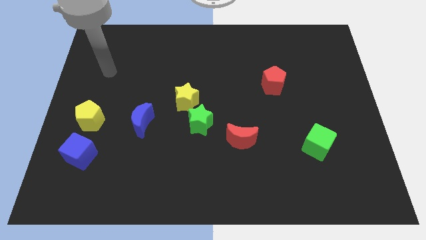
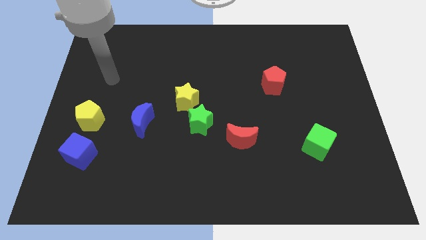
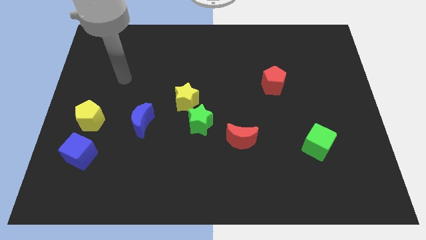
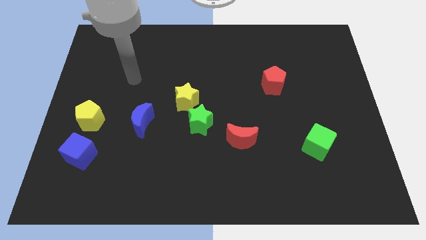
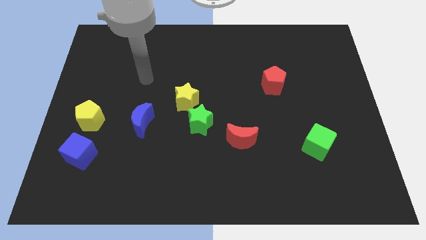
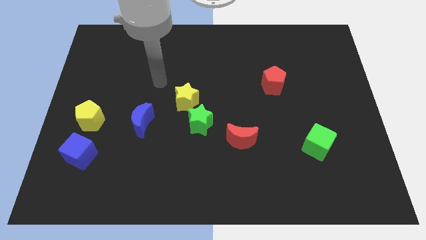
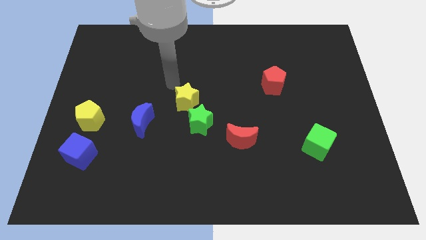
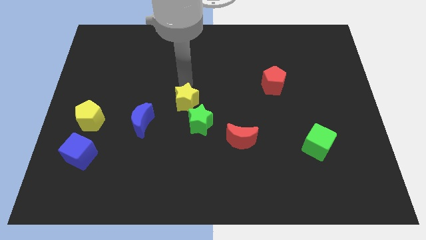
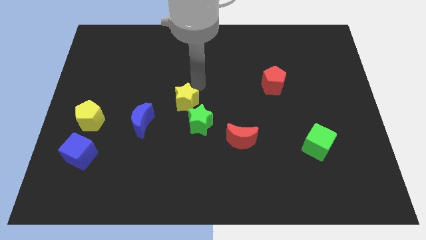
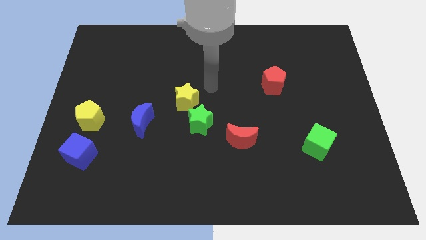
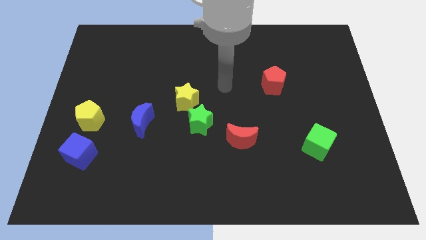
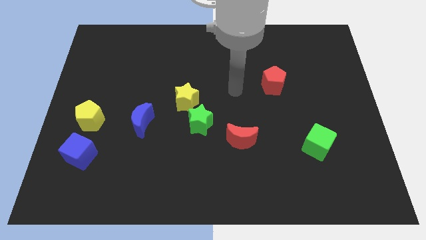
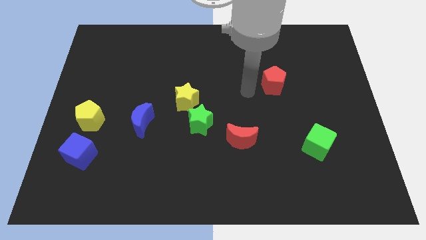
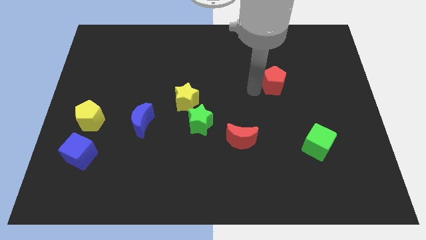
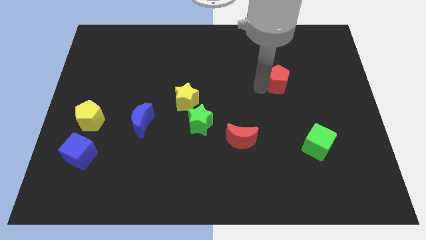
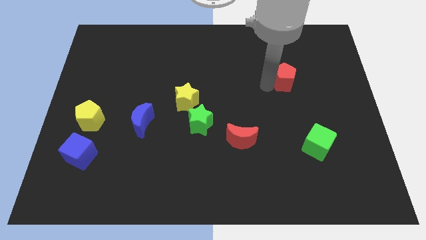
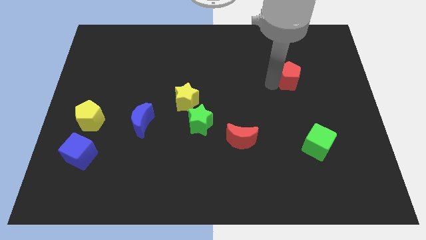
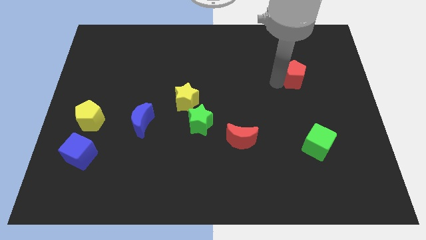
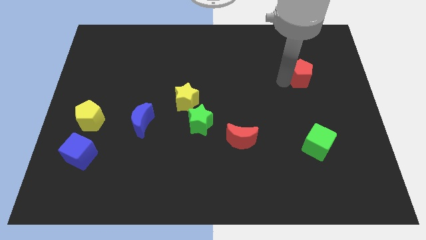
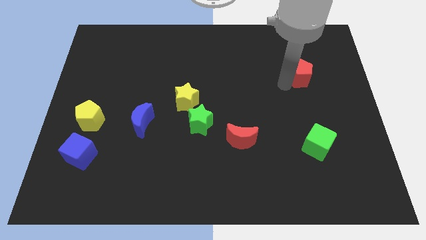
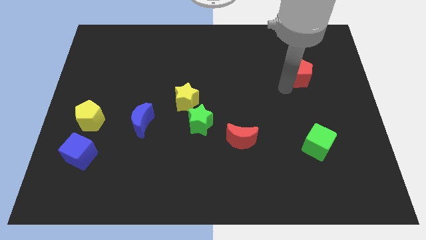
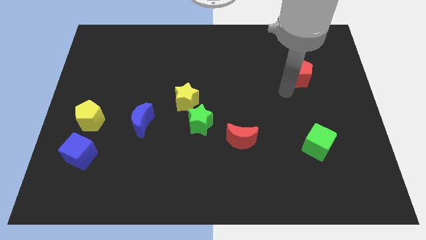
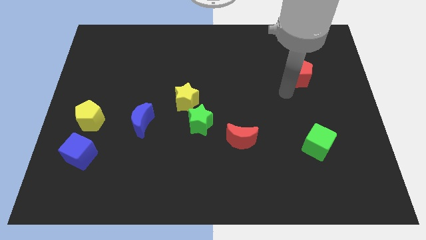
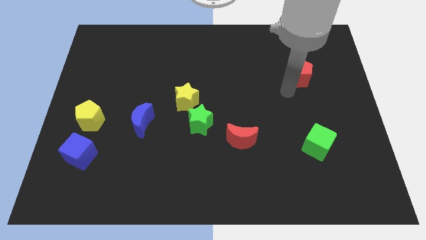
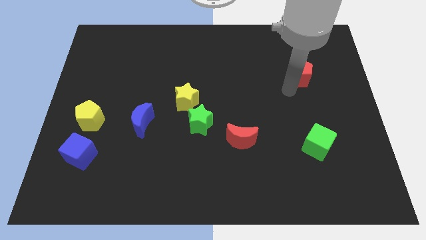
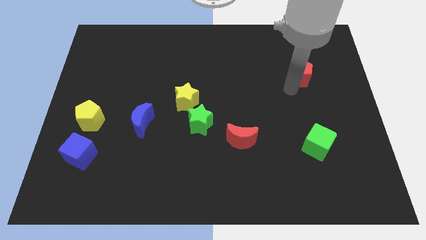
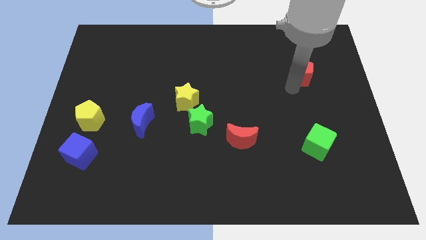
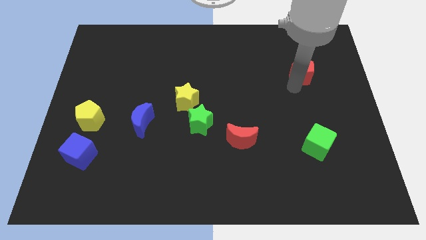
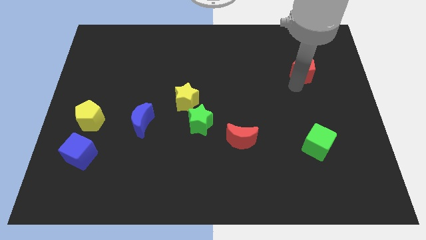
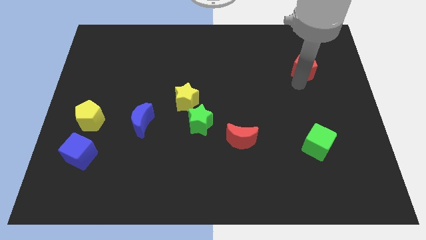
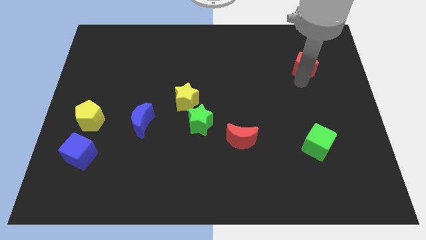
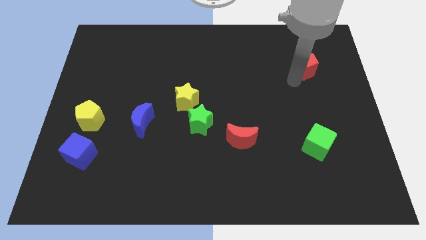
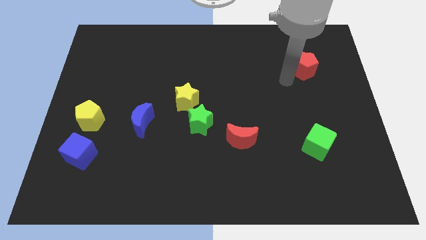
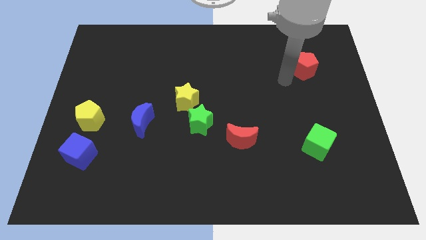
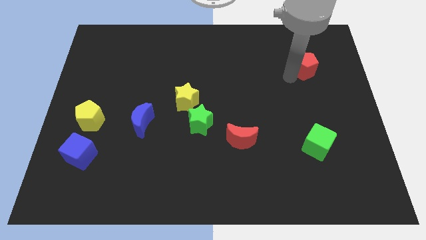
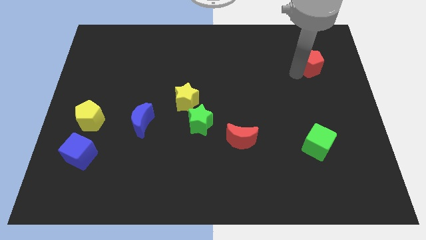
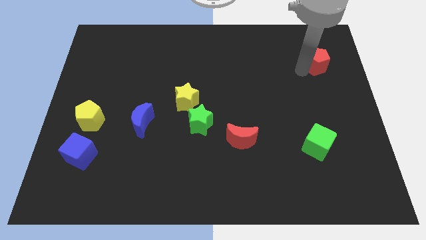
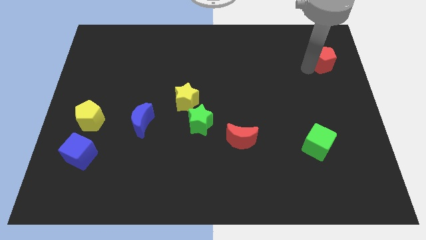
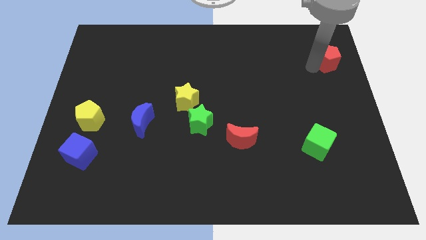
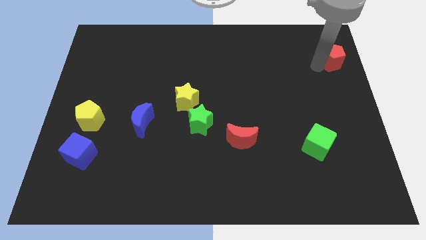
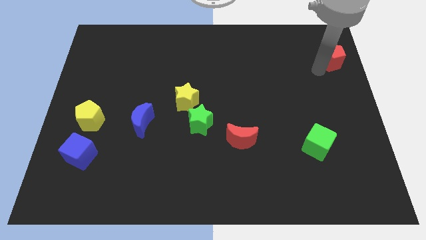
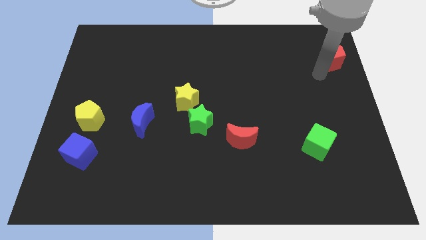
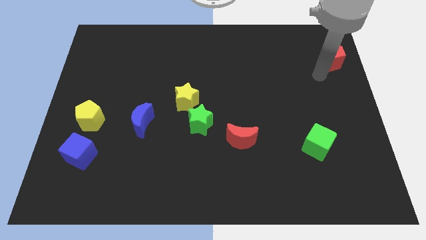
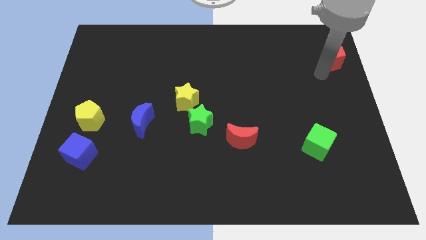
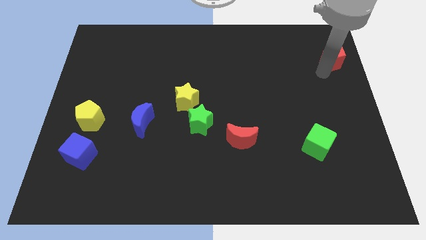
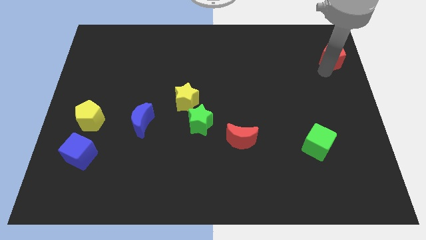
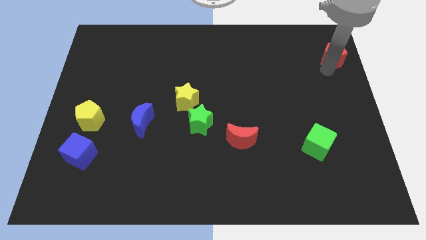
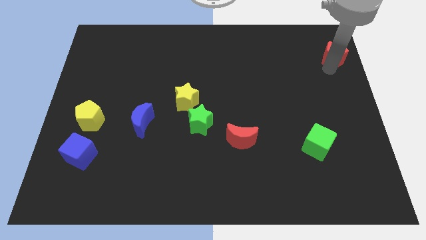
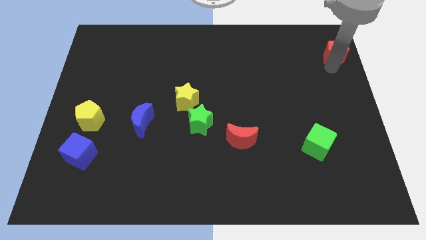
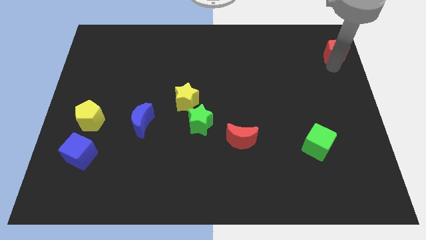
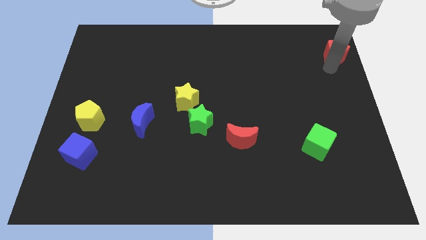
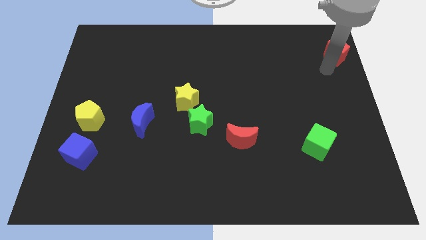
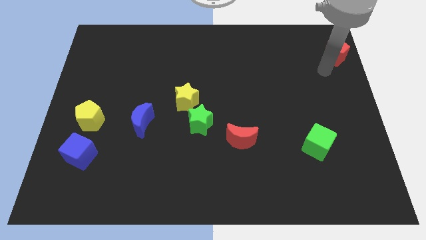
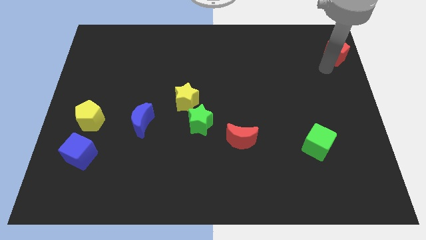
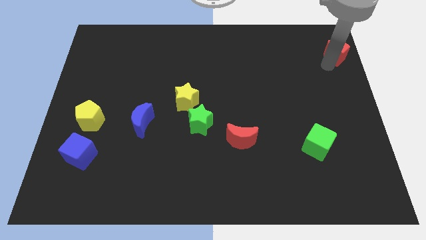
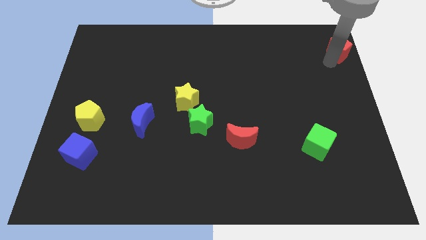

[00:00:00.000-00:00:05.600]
slide the red pentagon to the top right of the board

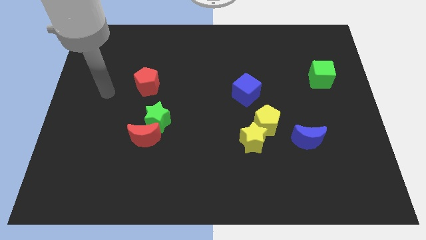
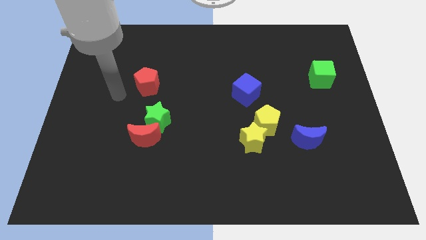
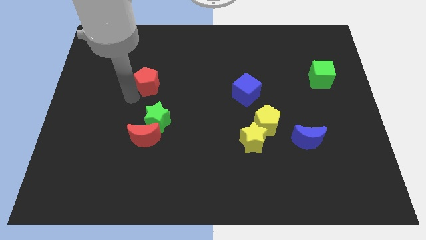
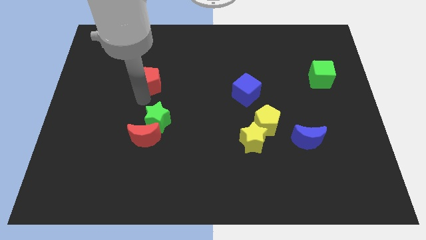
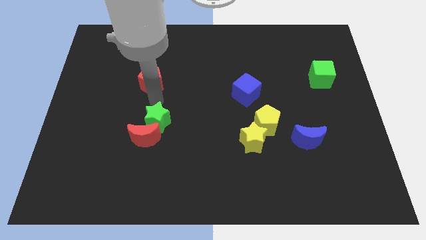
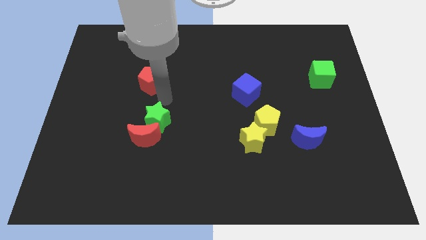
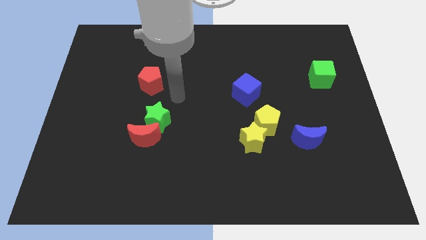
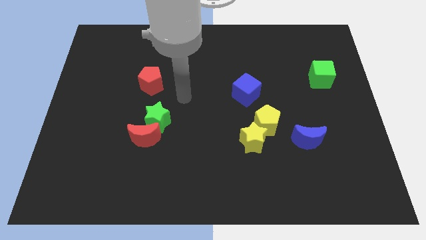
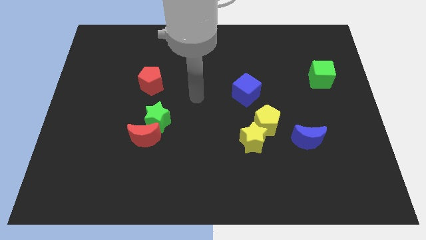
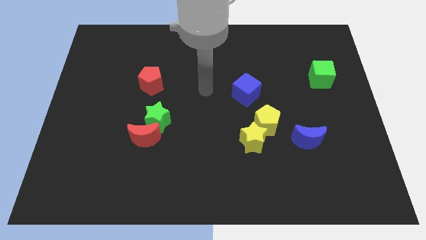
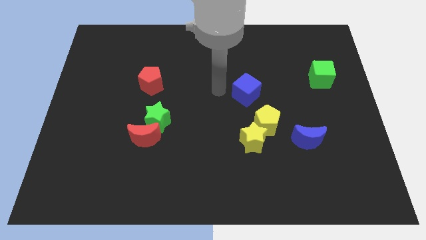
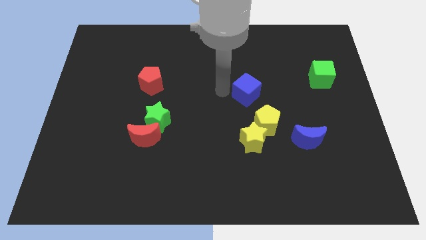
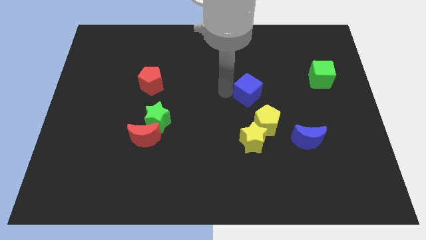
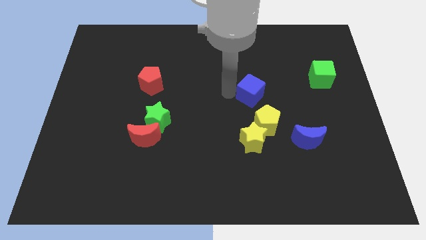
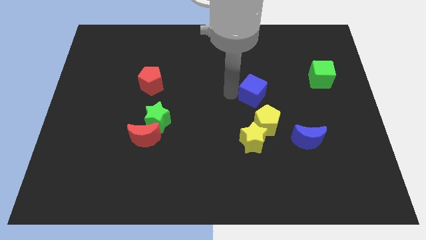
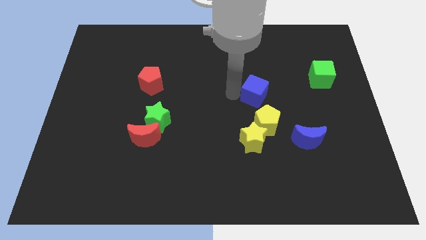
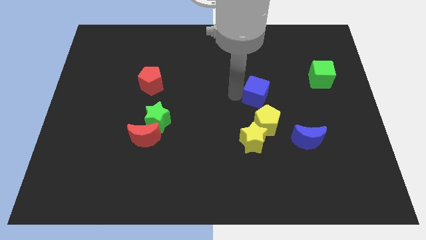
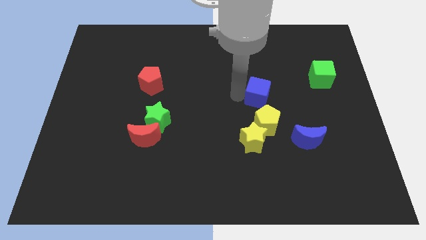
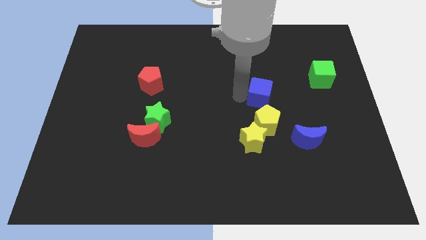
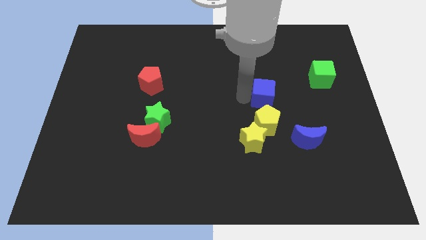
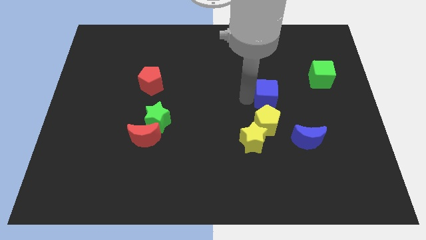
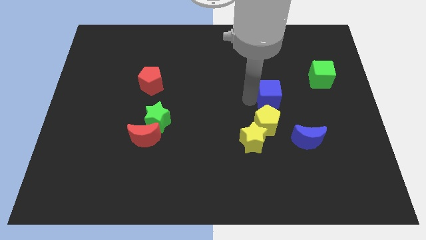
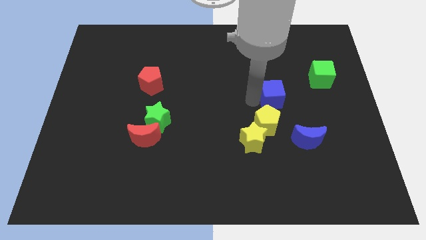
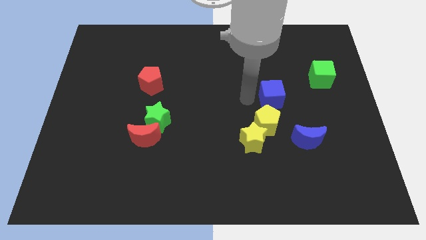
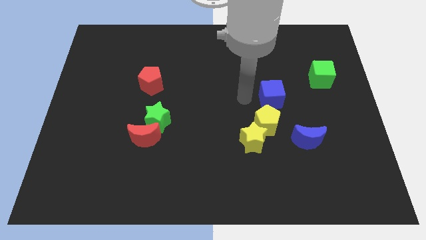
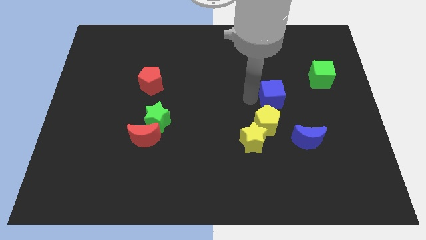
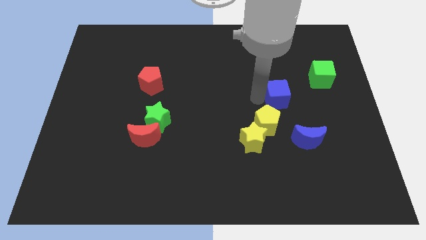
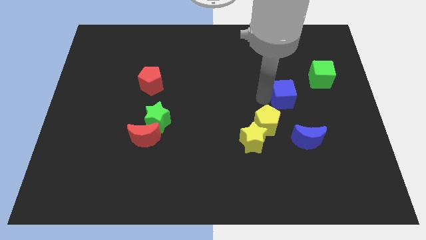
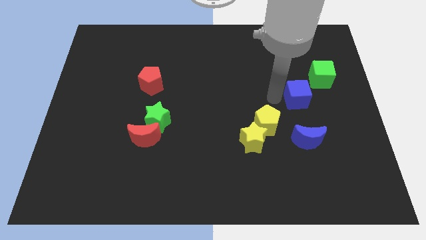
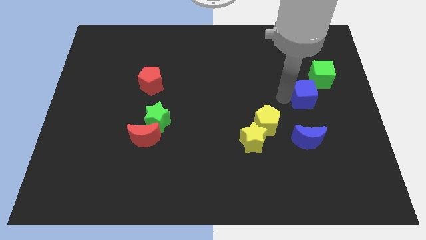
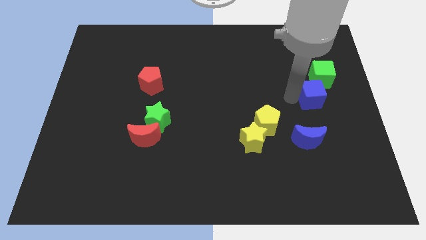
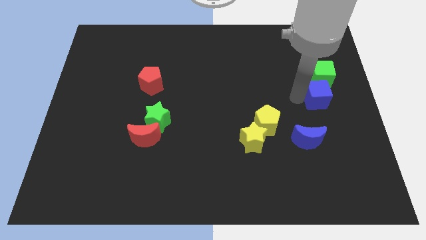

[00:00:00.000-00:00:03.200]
push the blue cube to the right side of the board
